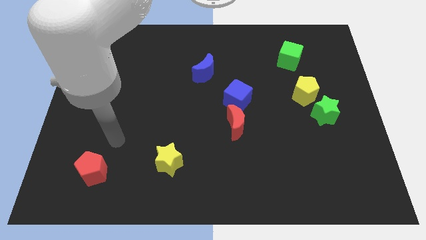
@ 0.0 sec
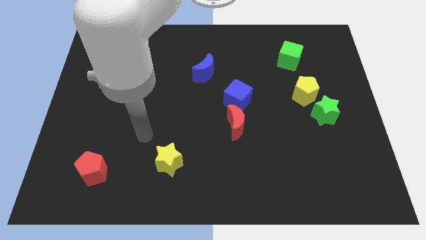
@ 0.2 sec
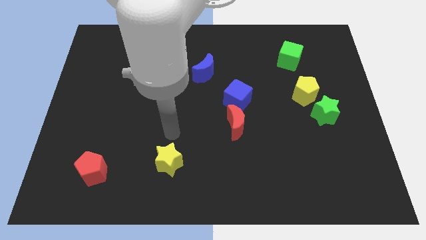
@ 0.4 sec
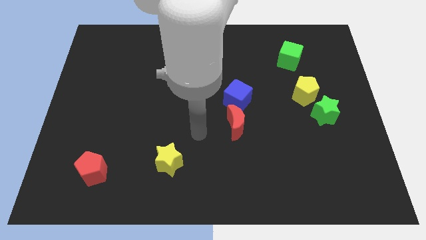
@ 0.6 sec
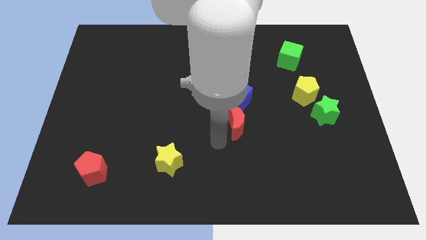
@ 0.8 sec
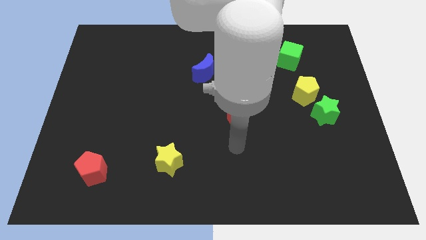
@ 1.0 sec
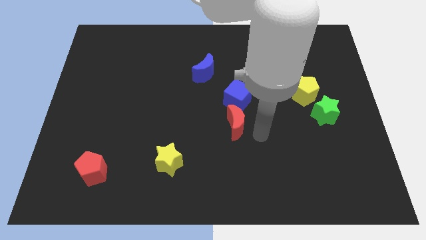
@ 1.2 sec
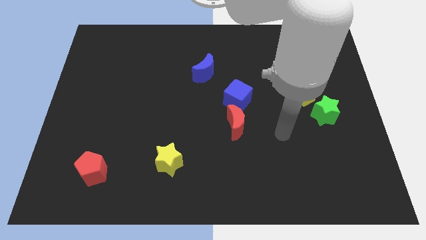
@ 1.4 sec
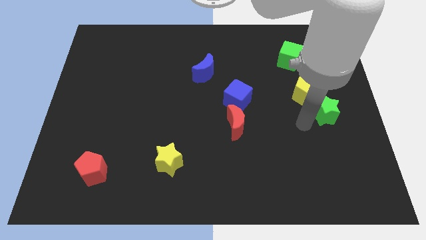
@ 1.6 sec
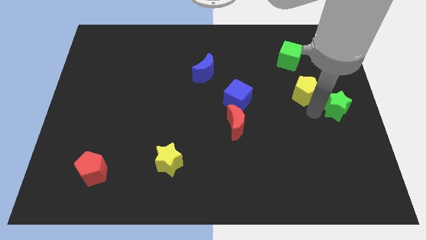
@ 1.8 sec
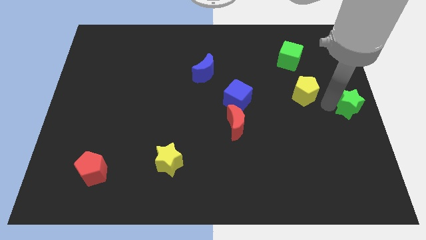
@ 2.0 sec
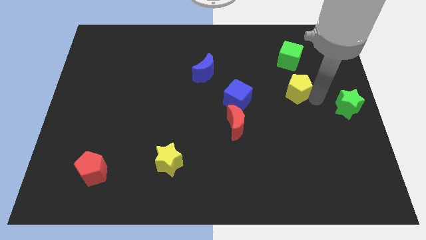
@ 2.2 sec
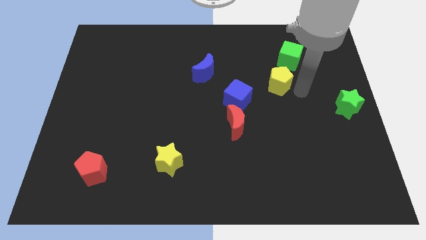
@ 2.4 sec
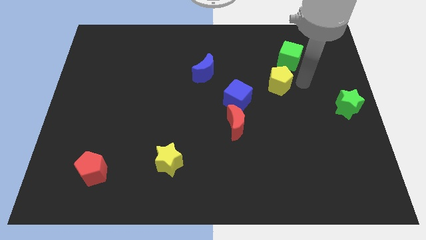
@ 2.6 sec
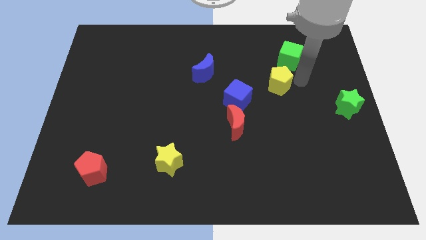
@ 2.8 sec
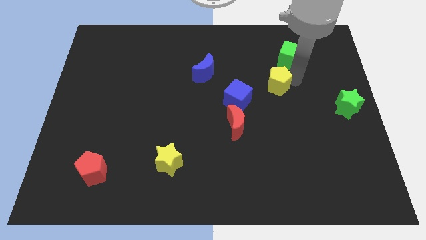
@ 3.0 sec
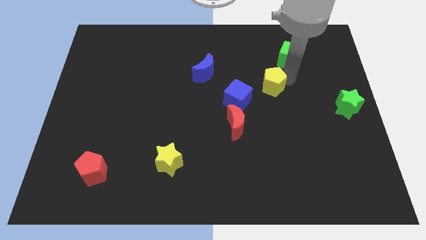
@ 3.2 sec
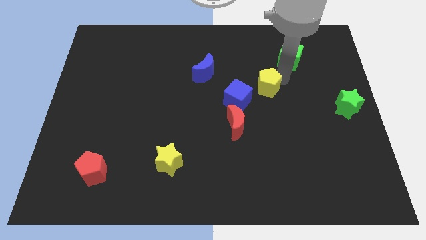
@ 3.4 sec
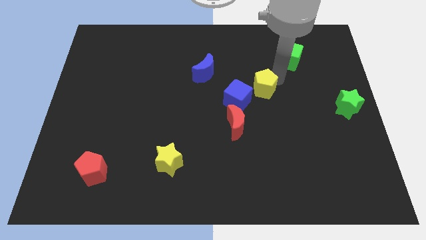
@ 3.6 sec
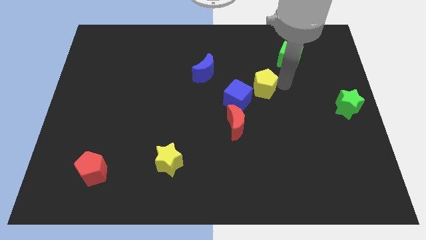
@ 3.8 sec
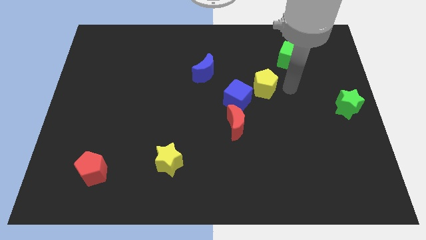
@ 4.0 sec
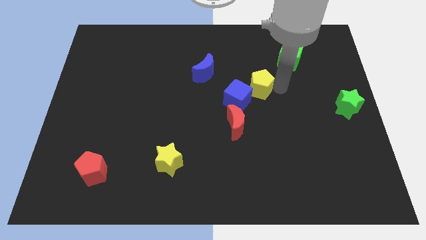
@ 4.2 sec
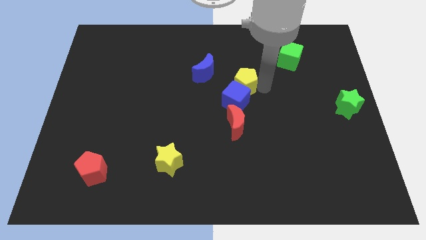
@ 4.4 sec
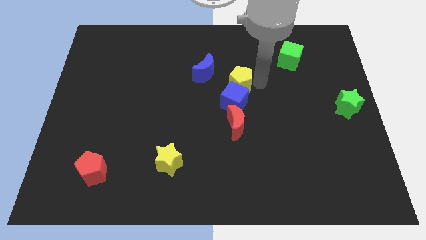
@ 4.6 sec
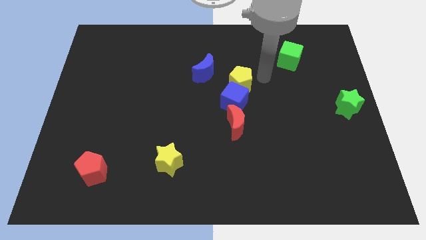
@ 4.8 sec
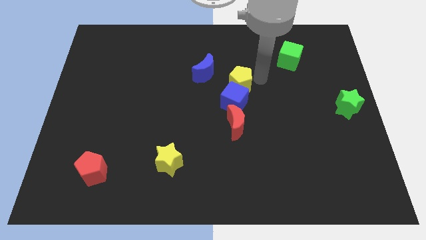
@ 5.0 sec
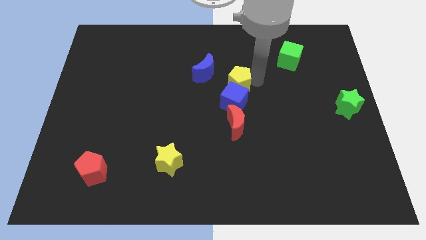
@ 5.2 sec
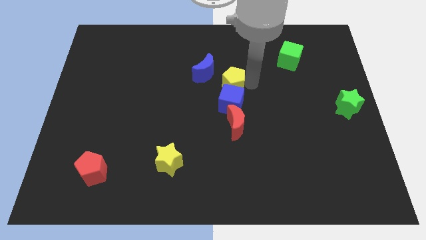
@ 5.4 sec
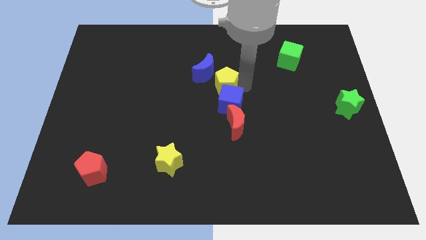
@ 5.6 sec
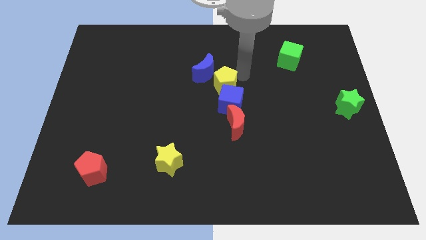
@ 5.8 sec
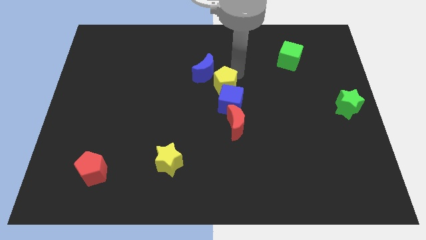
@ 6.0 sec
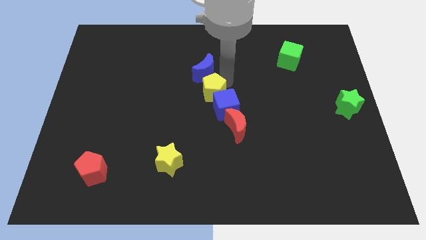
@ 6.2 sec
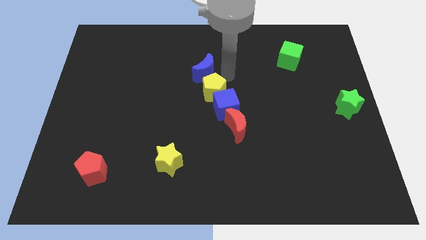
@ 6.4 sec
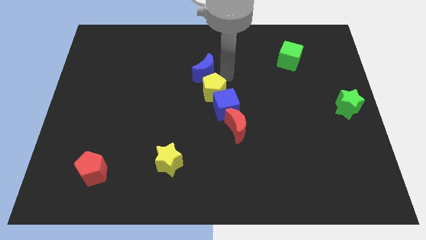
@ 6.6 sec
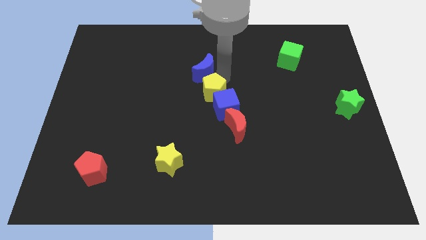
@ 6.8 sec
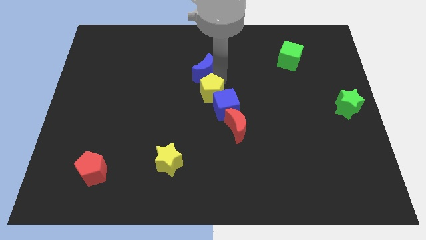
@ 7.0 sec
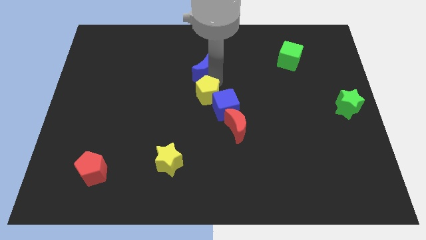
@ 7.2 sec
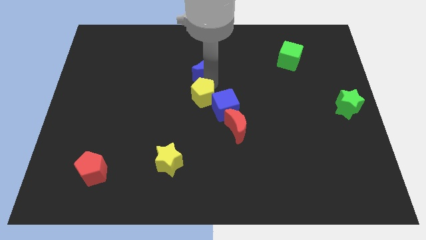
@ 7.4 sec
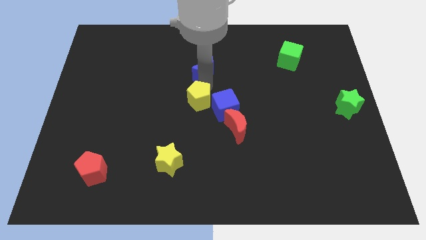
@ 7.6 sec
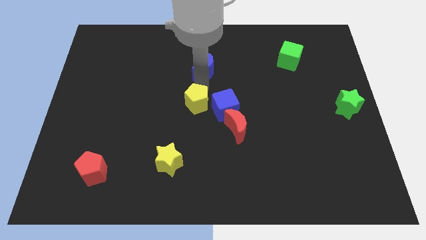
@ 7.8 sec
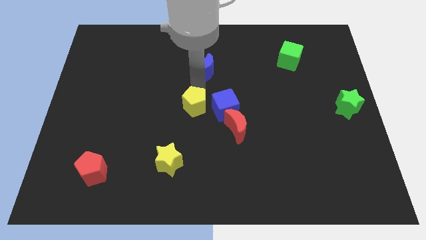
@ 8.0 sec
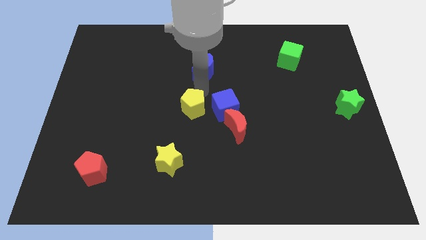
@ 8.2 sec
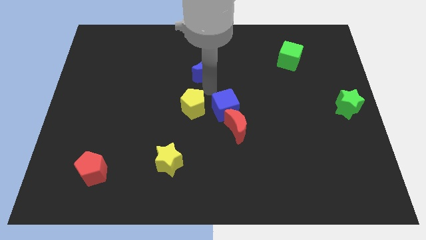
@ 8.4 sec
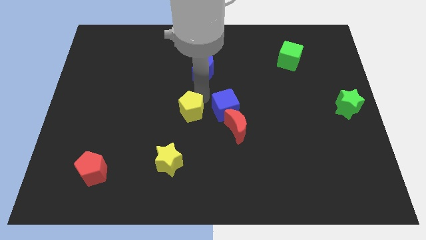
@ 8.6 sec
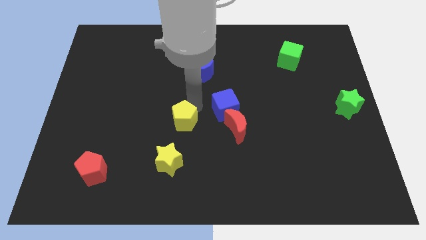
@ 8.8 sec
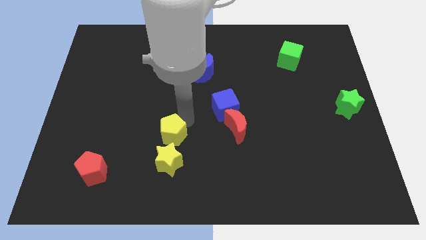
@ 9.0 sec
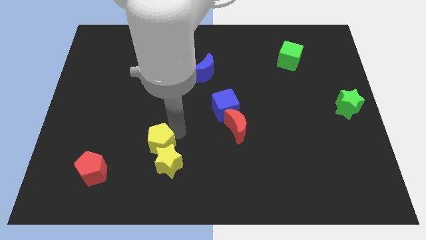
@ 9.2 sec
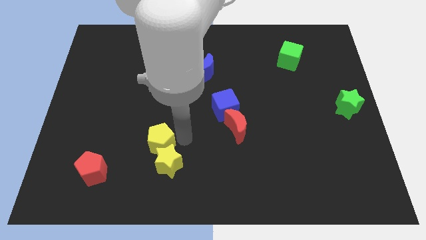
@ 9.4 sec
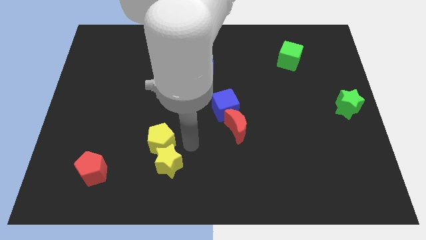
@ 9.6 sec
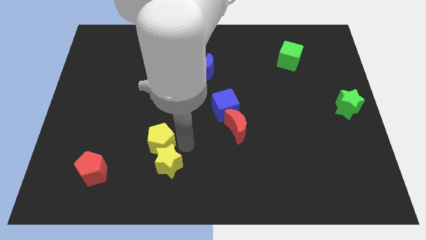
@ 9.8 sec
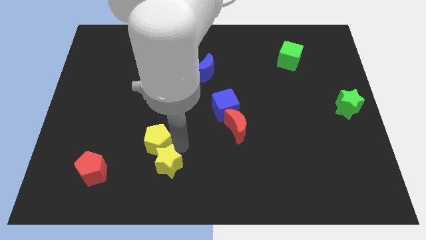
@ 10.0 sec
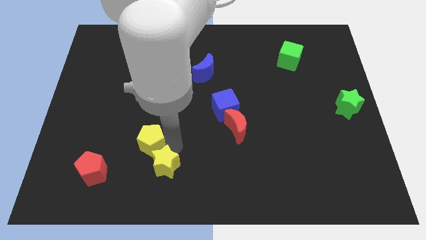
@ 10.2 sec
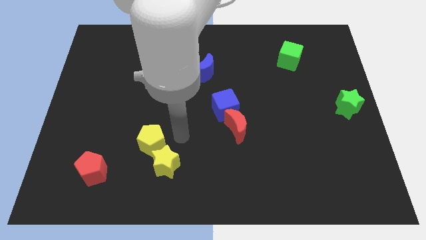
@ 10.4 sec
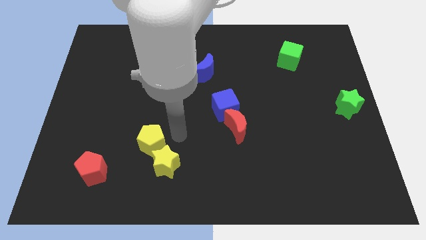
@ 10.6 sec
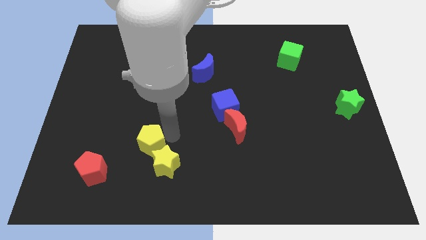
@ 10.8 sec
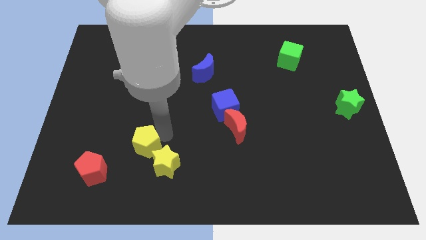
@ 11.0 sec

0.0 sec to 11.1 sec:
push the yellow pentagon diagonally up and to the right of the red pentagon
